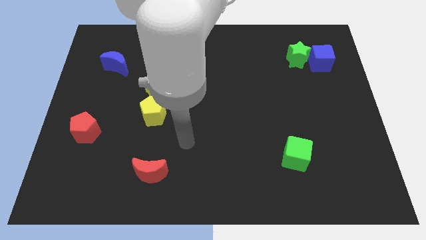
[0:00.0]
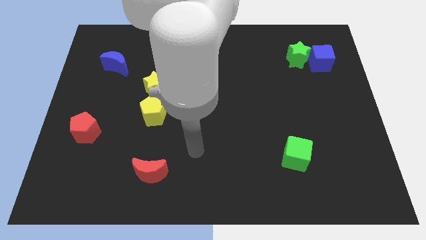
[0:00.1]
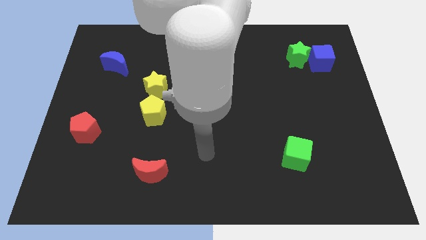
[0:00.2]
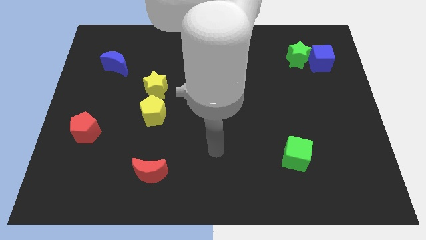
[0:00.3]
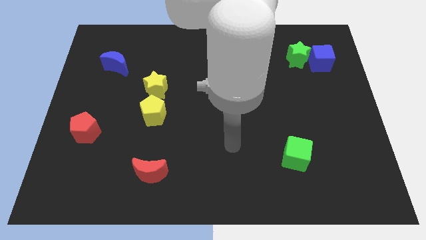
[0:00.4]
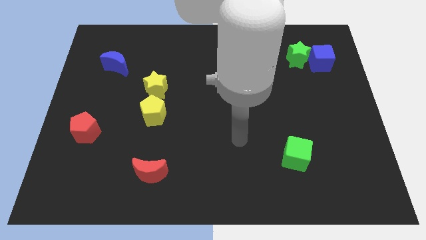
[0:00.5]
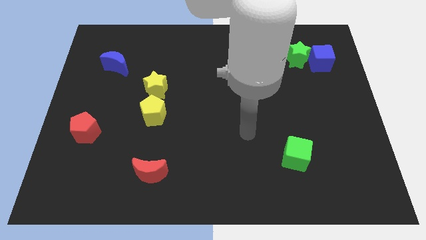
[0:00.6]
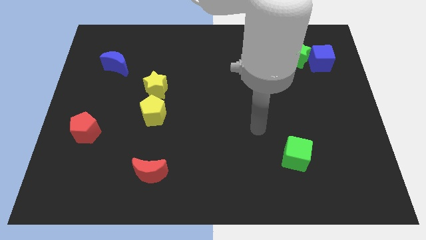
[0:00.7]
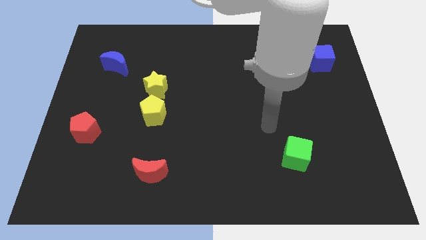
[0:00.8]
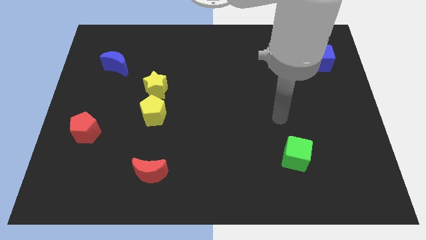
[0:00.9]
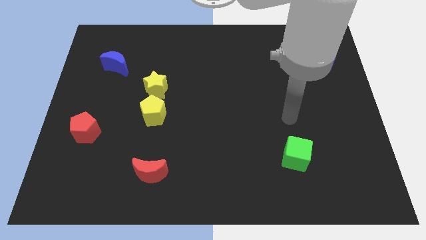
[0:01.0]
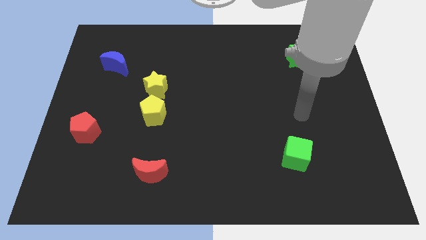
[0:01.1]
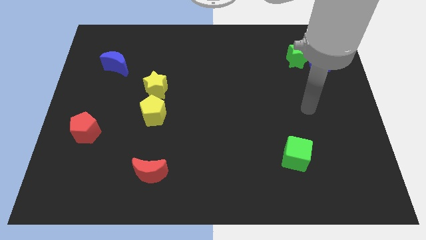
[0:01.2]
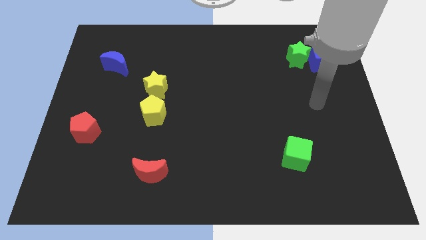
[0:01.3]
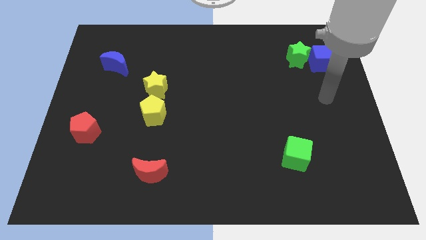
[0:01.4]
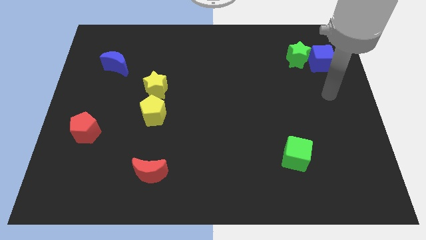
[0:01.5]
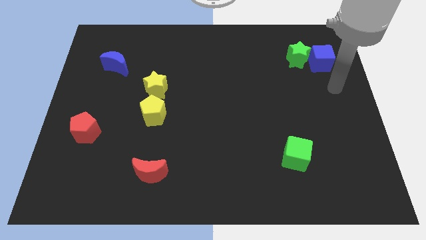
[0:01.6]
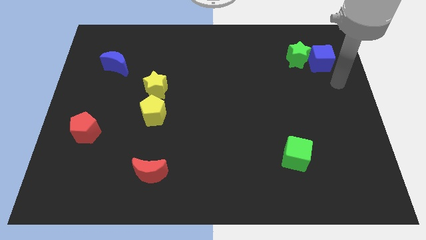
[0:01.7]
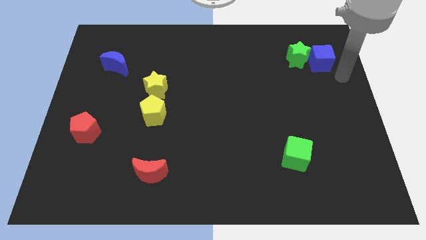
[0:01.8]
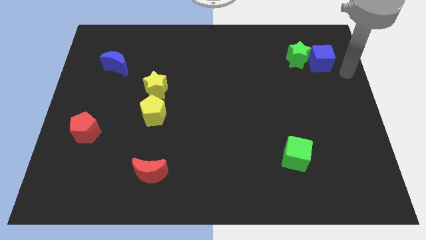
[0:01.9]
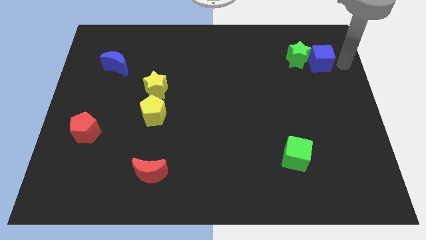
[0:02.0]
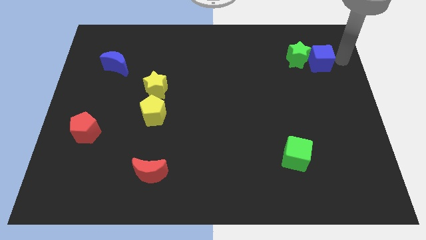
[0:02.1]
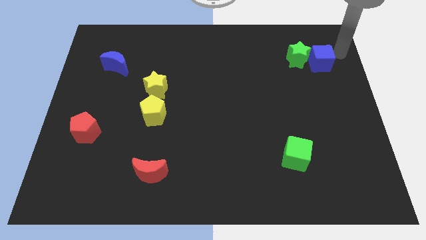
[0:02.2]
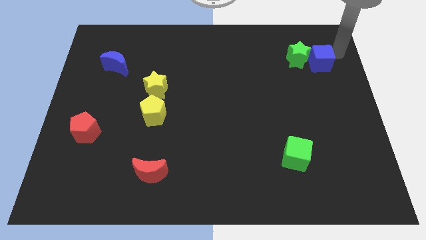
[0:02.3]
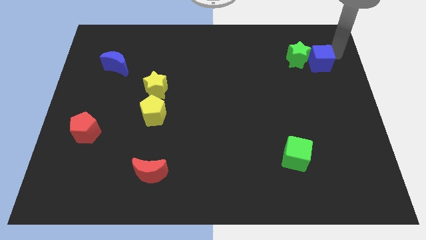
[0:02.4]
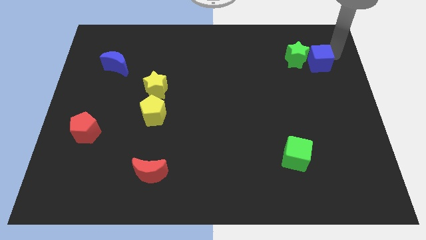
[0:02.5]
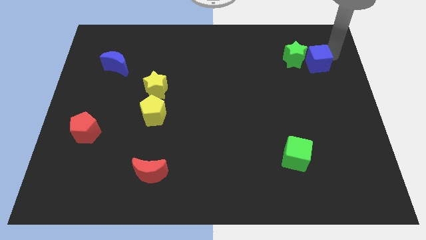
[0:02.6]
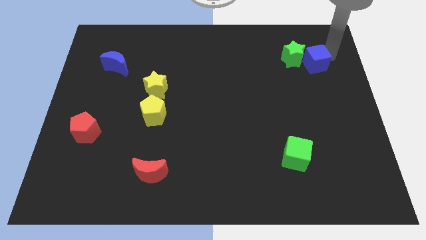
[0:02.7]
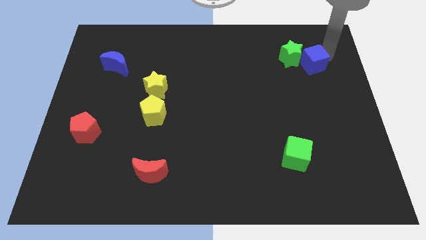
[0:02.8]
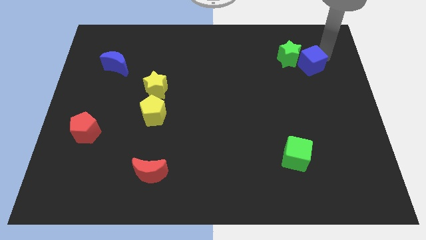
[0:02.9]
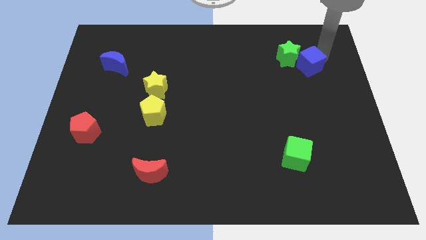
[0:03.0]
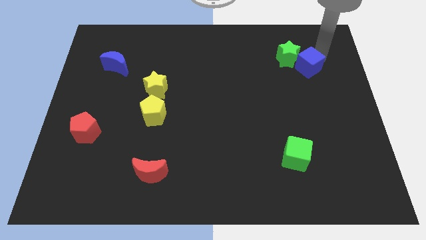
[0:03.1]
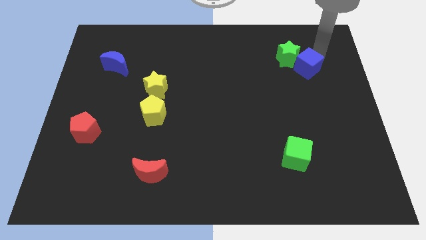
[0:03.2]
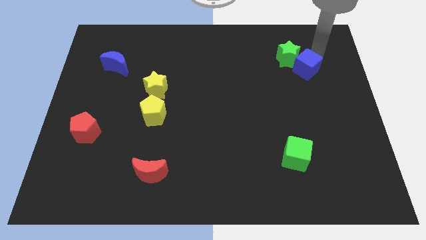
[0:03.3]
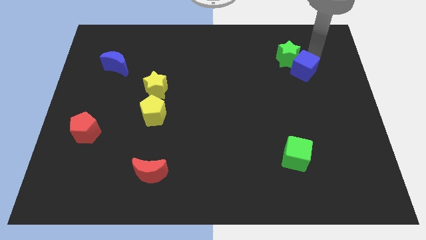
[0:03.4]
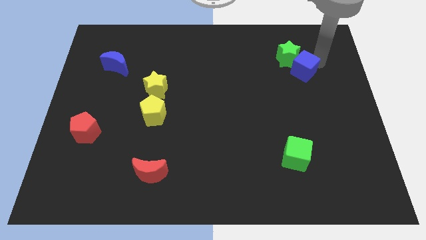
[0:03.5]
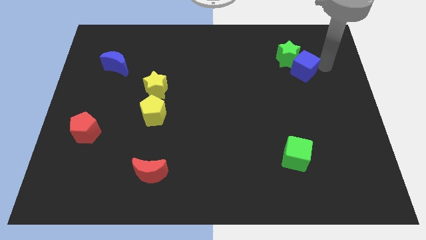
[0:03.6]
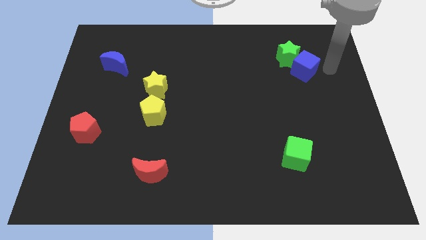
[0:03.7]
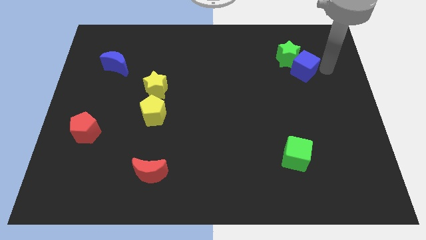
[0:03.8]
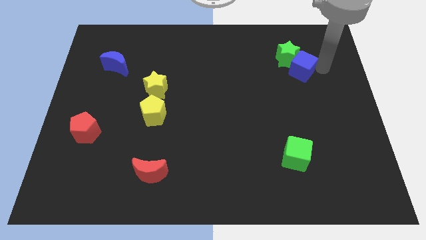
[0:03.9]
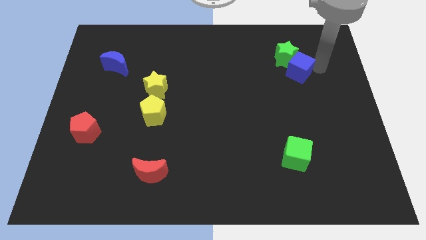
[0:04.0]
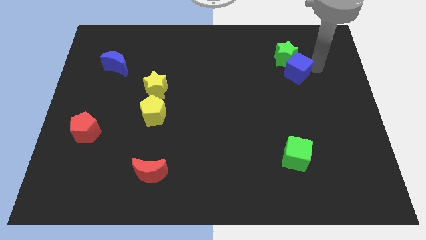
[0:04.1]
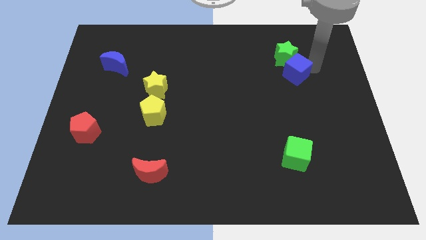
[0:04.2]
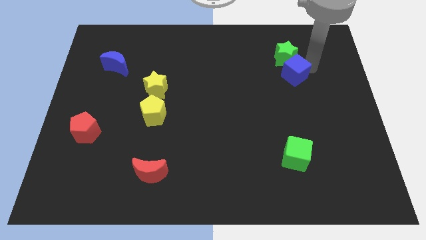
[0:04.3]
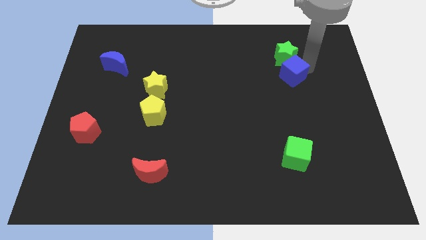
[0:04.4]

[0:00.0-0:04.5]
slightly move the blue cube to the left

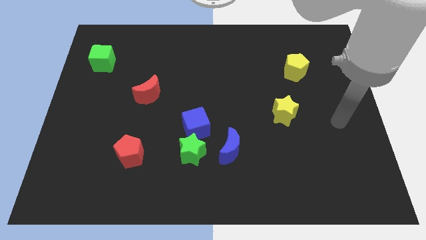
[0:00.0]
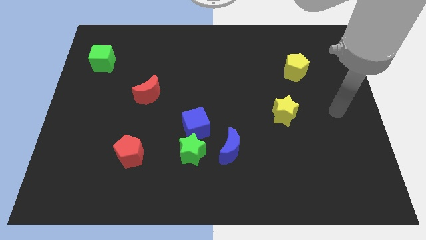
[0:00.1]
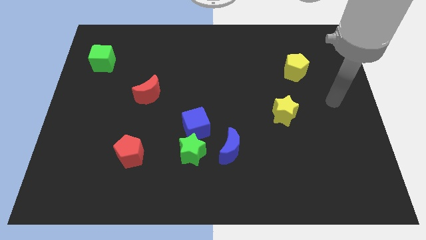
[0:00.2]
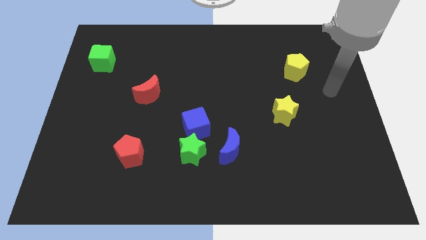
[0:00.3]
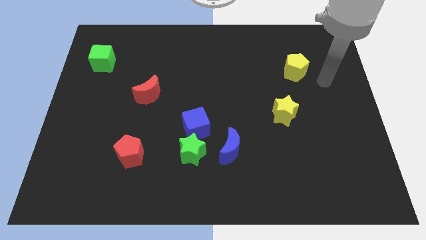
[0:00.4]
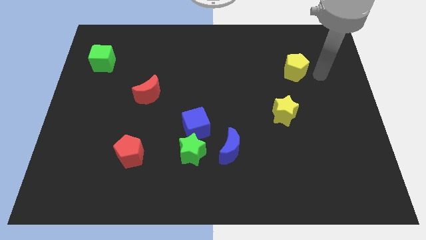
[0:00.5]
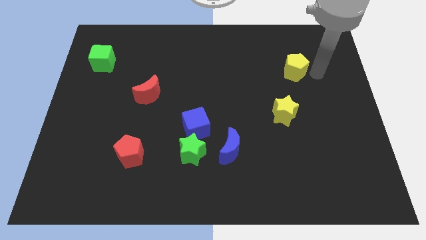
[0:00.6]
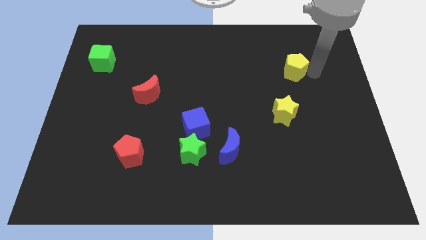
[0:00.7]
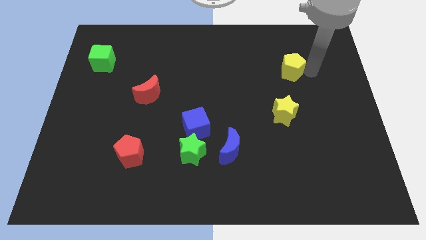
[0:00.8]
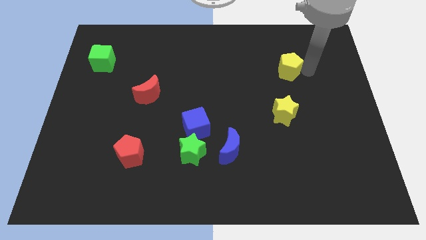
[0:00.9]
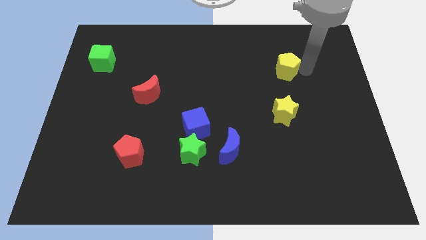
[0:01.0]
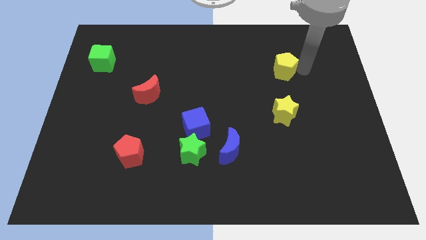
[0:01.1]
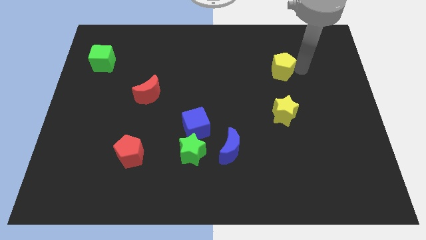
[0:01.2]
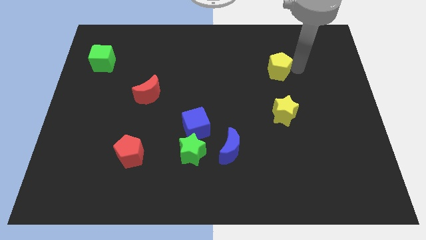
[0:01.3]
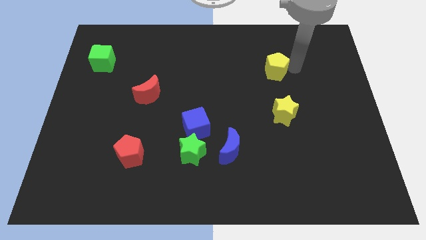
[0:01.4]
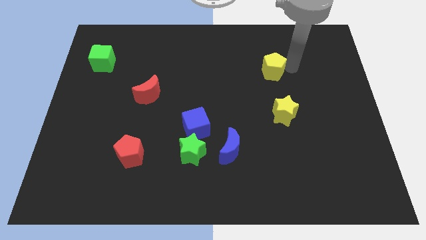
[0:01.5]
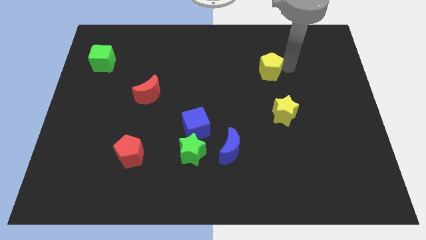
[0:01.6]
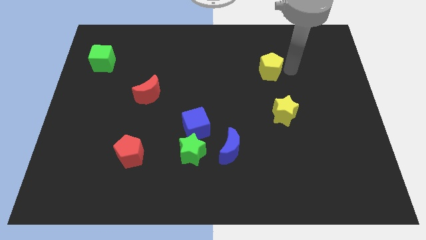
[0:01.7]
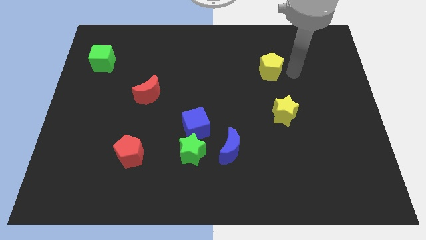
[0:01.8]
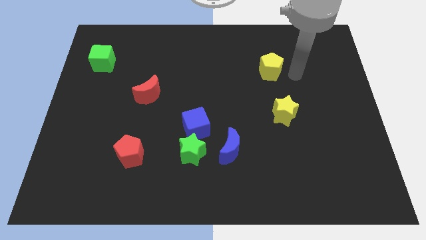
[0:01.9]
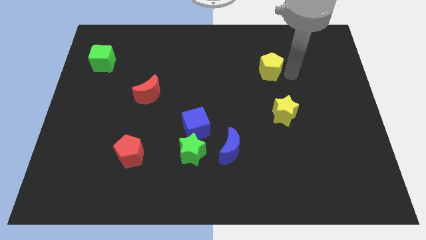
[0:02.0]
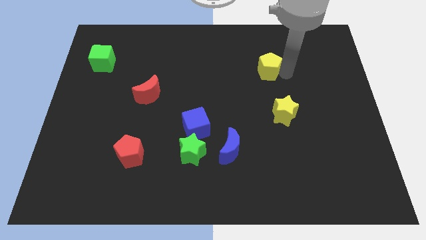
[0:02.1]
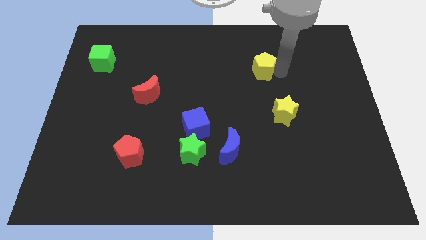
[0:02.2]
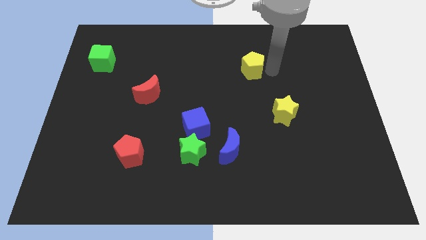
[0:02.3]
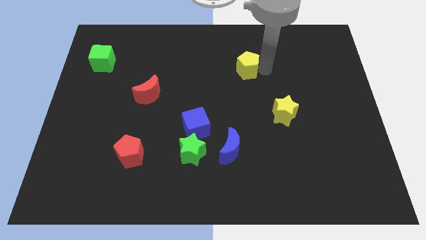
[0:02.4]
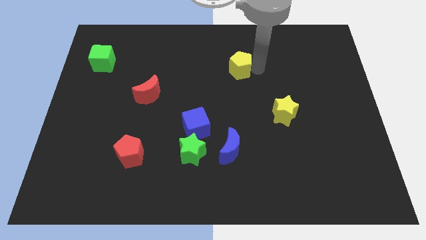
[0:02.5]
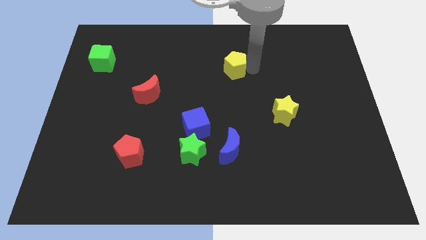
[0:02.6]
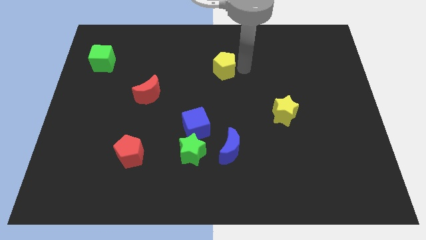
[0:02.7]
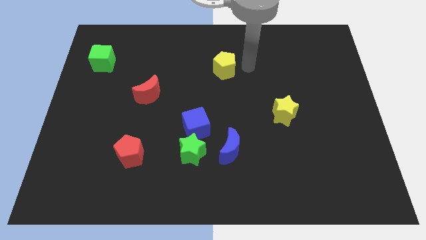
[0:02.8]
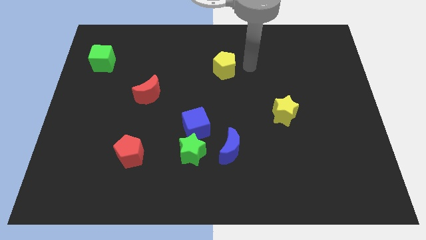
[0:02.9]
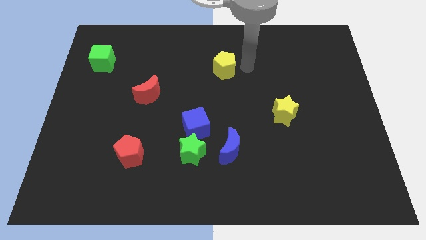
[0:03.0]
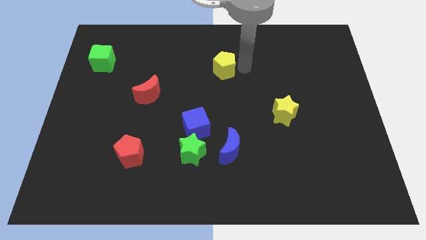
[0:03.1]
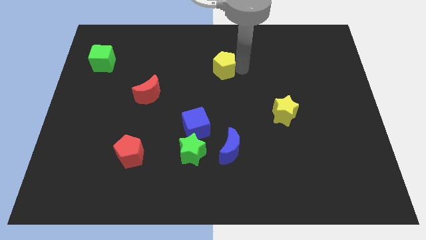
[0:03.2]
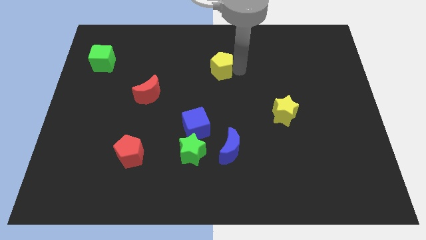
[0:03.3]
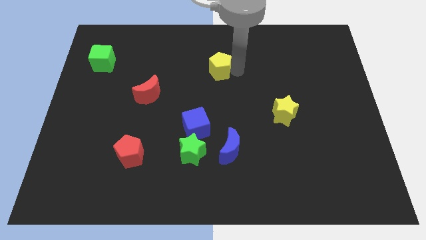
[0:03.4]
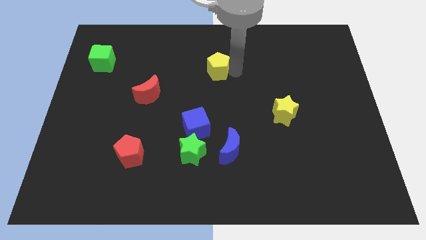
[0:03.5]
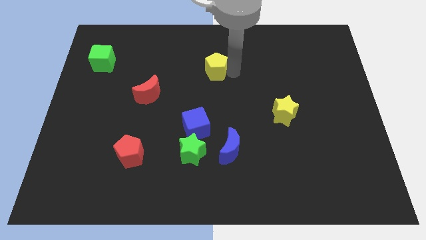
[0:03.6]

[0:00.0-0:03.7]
move the yellow pentagon to the left

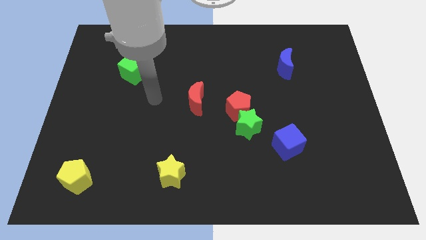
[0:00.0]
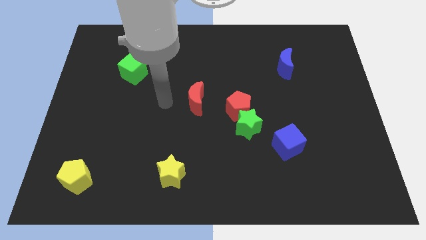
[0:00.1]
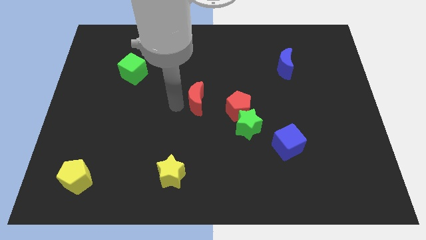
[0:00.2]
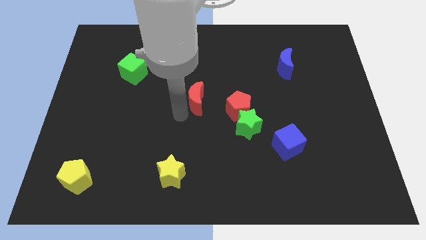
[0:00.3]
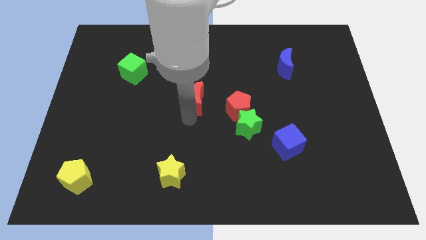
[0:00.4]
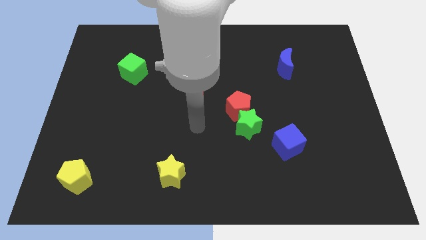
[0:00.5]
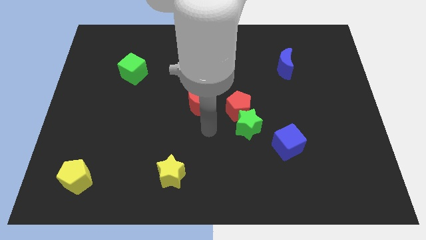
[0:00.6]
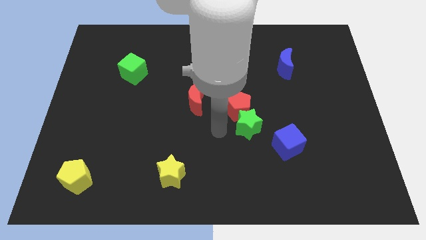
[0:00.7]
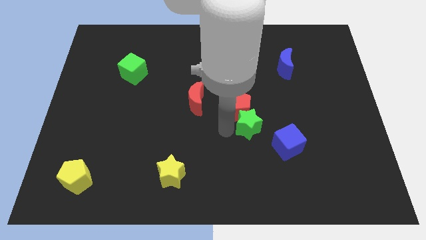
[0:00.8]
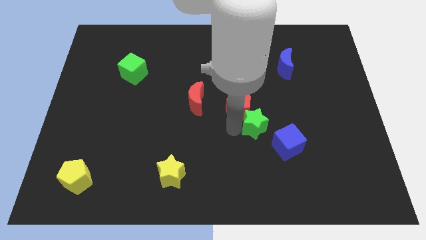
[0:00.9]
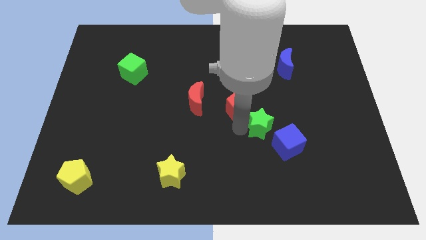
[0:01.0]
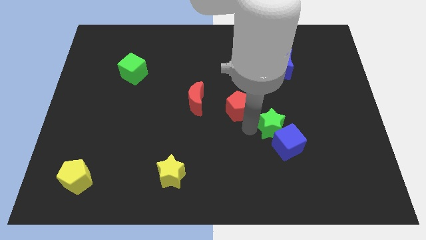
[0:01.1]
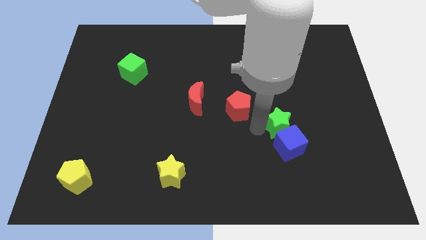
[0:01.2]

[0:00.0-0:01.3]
move the green star slightly to the right
